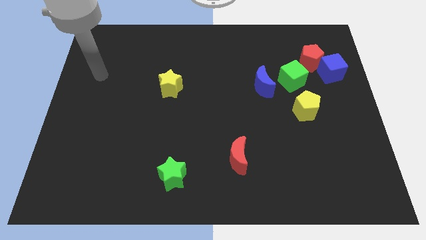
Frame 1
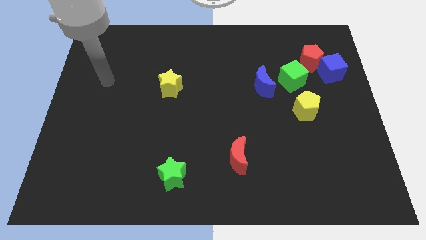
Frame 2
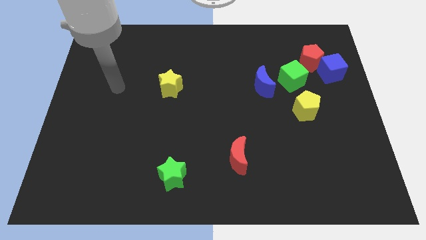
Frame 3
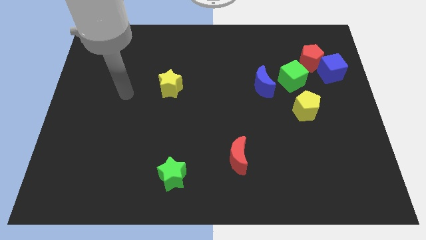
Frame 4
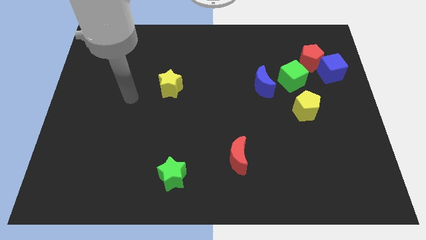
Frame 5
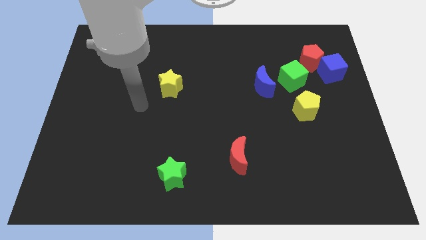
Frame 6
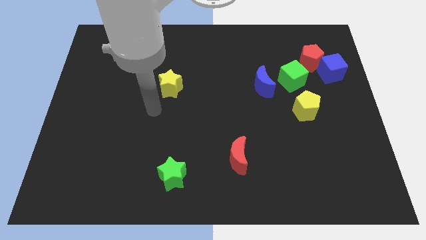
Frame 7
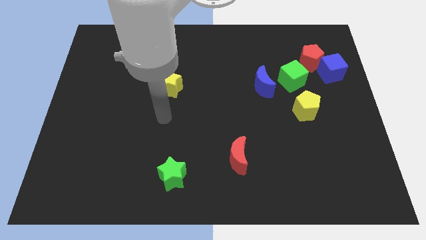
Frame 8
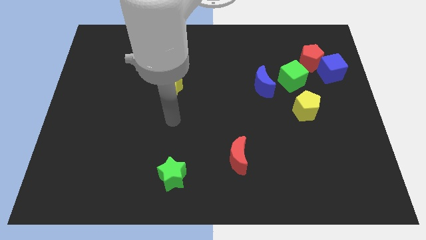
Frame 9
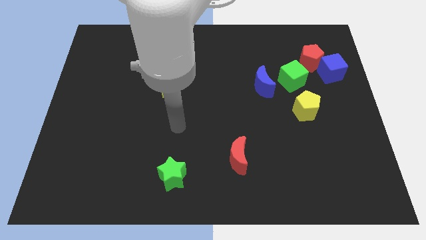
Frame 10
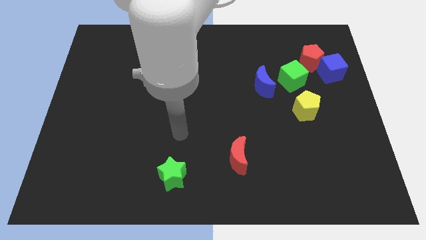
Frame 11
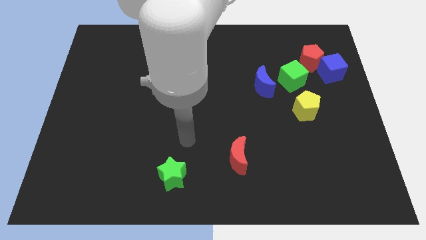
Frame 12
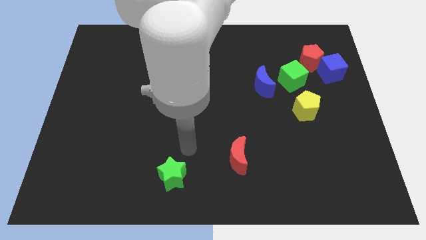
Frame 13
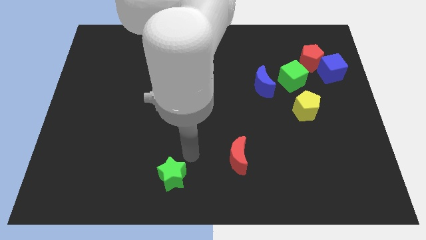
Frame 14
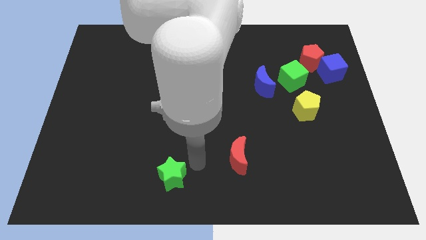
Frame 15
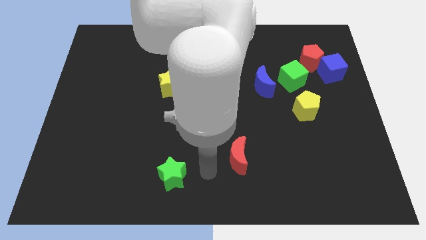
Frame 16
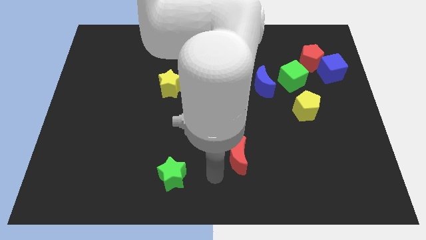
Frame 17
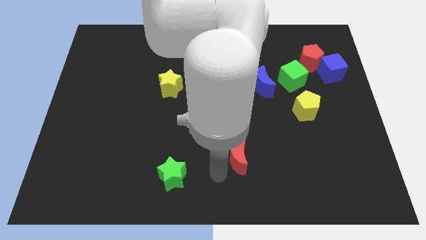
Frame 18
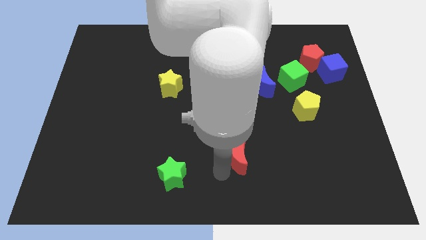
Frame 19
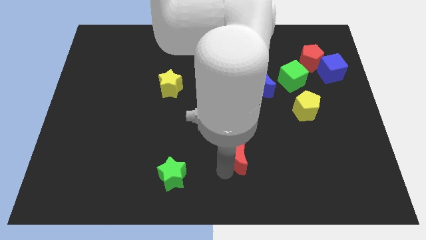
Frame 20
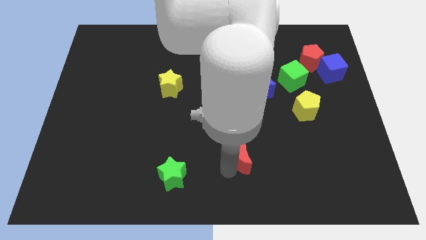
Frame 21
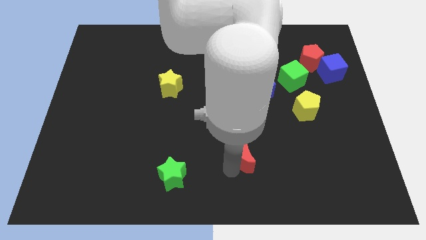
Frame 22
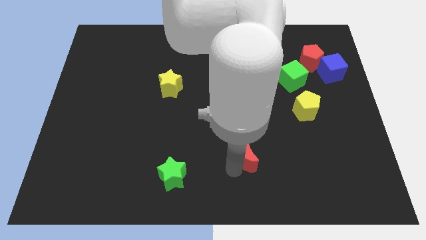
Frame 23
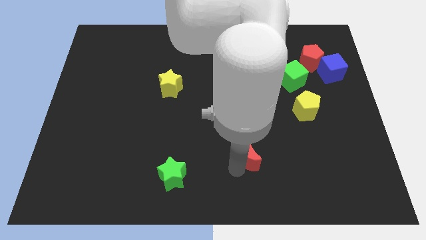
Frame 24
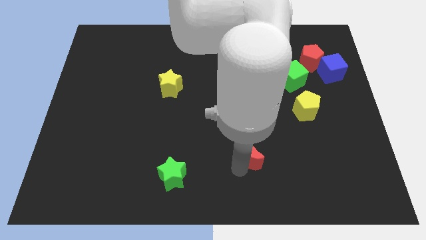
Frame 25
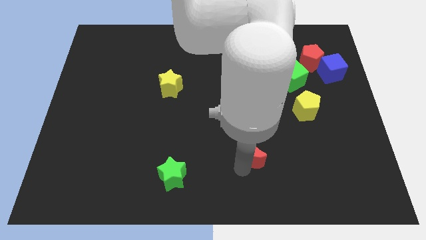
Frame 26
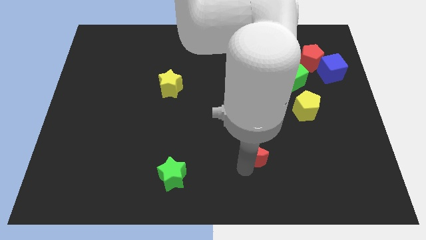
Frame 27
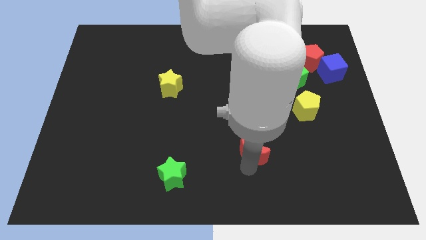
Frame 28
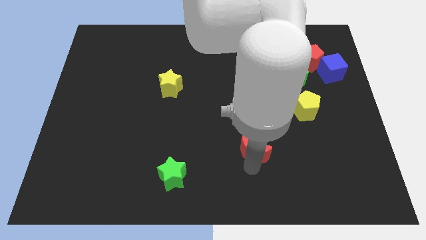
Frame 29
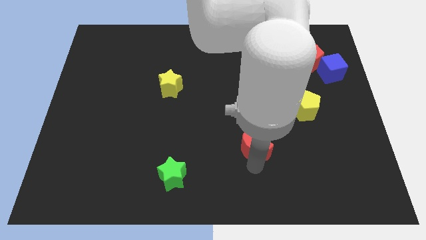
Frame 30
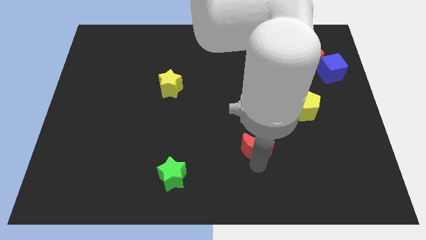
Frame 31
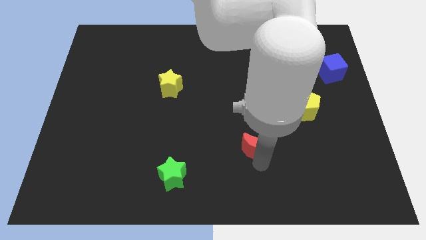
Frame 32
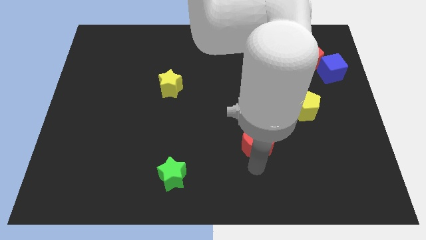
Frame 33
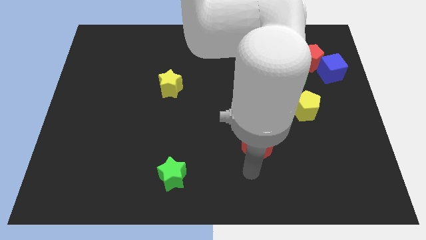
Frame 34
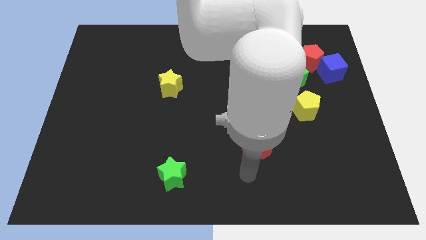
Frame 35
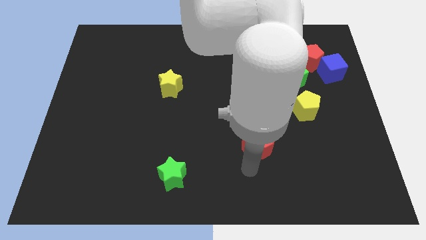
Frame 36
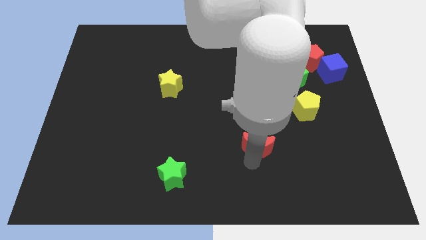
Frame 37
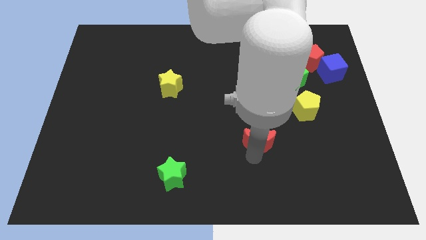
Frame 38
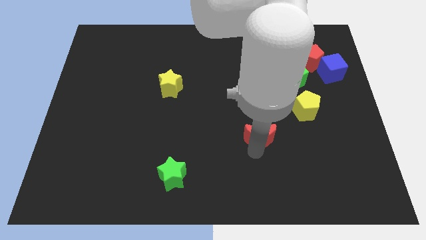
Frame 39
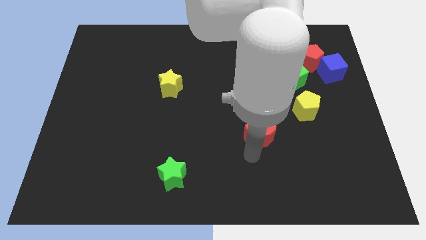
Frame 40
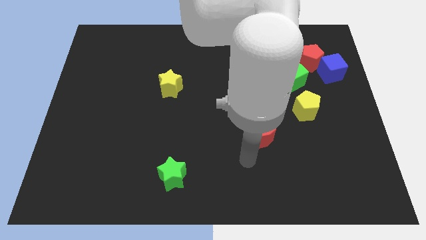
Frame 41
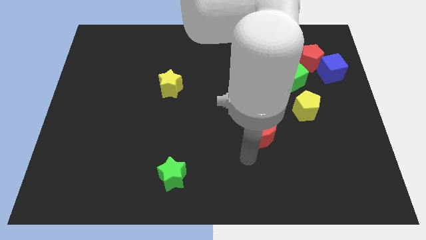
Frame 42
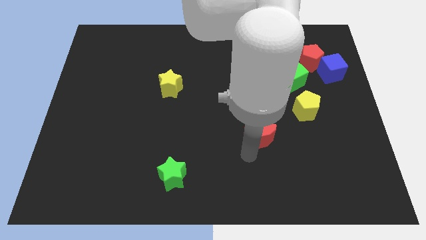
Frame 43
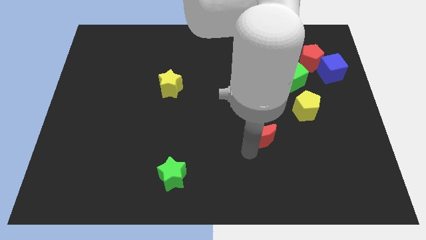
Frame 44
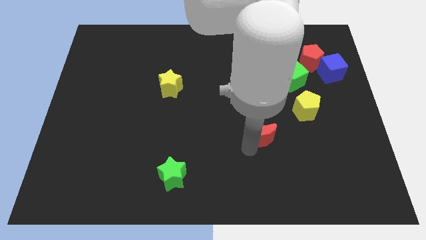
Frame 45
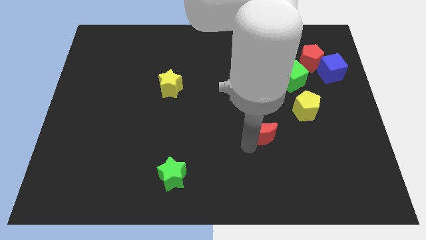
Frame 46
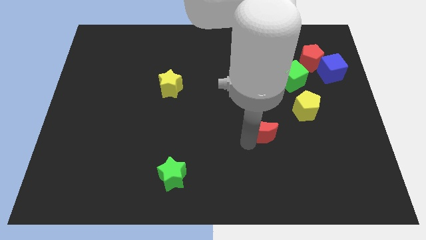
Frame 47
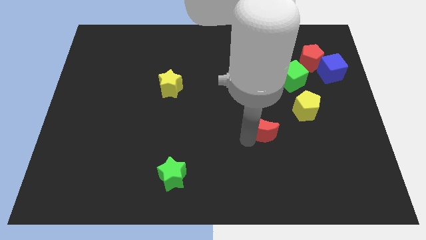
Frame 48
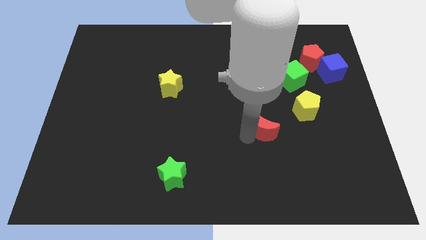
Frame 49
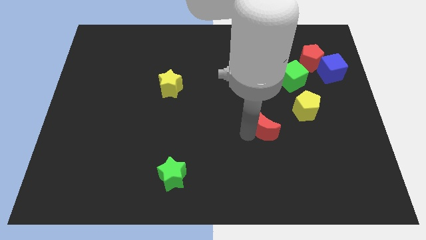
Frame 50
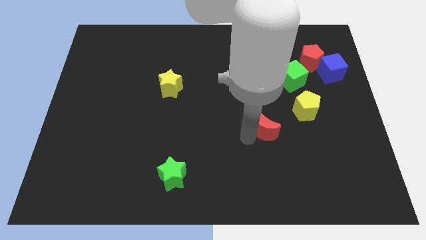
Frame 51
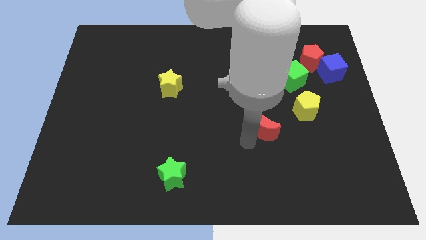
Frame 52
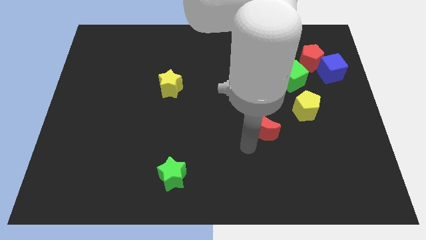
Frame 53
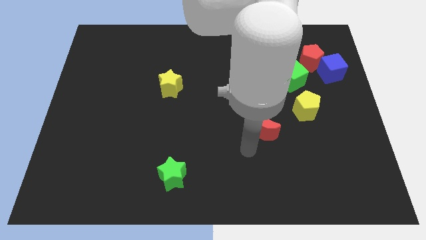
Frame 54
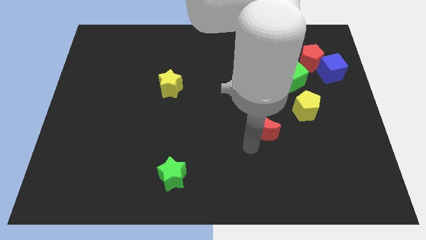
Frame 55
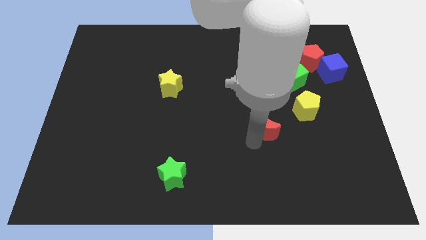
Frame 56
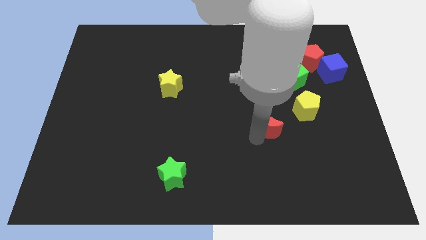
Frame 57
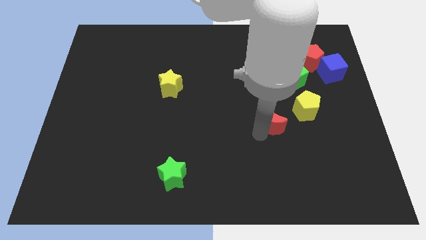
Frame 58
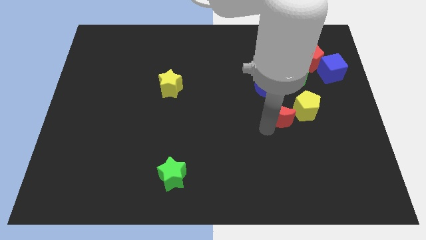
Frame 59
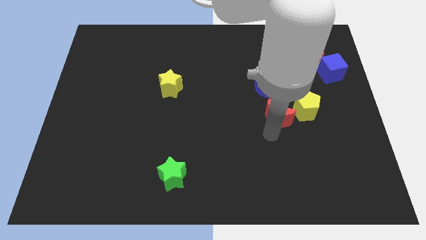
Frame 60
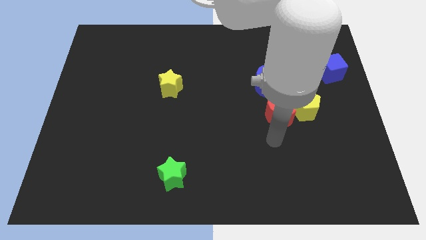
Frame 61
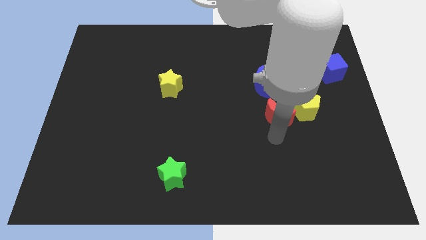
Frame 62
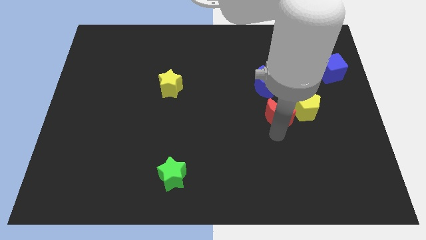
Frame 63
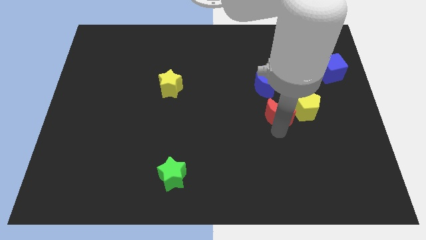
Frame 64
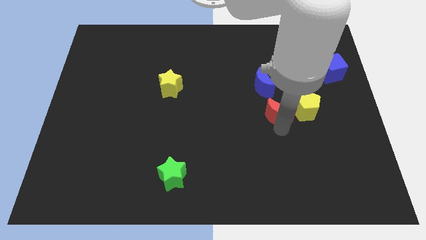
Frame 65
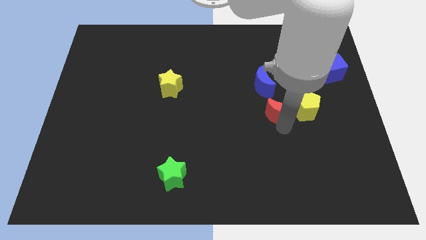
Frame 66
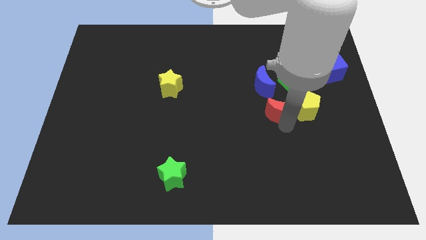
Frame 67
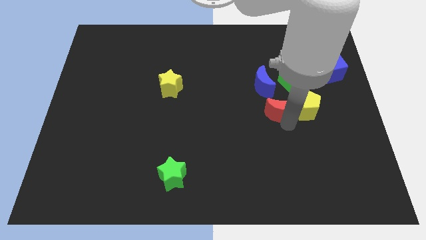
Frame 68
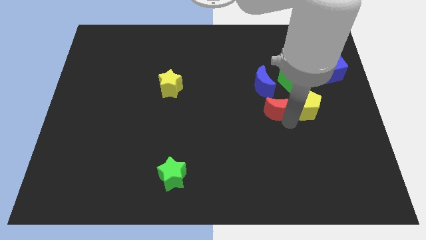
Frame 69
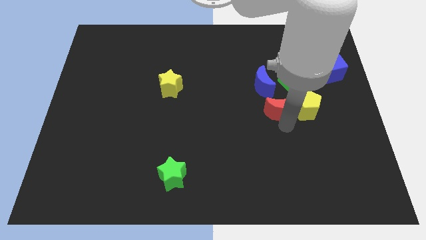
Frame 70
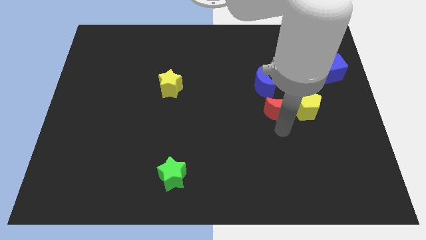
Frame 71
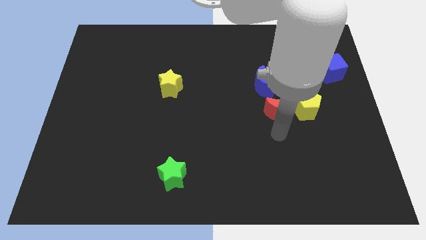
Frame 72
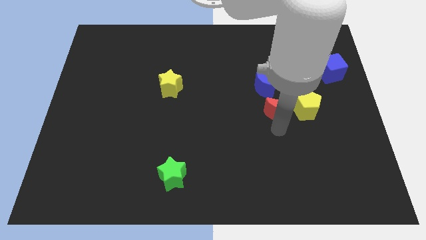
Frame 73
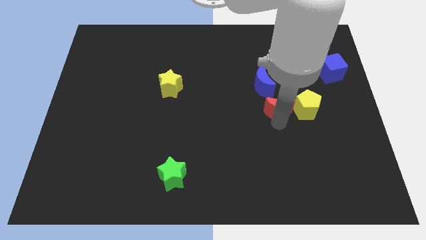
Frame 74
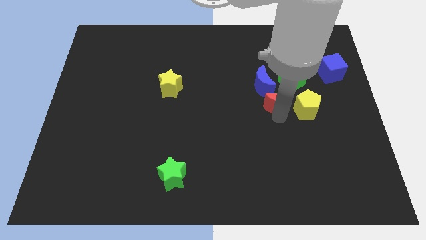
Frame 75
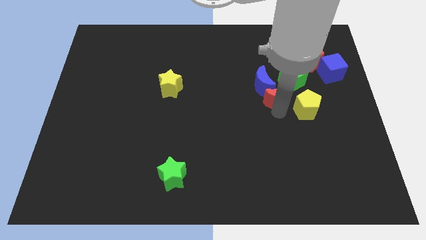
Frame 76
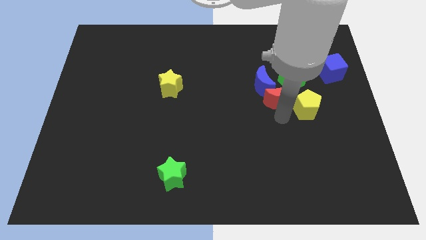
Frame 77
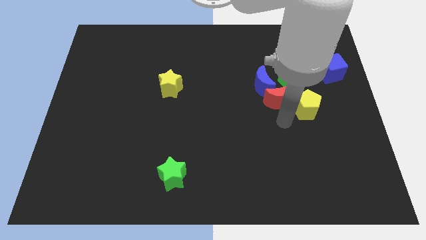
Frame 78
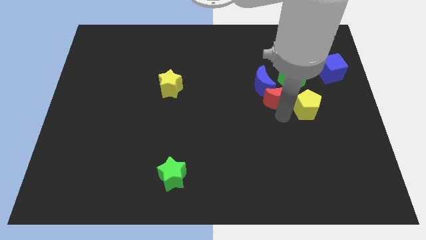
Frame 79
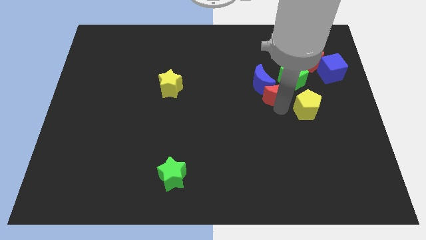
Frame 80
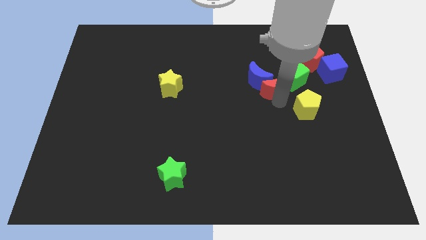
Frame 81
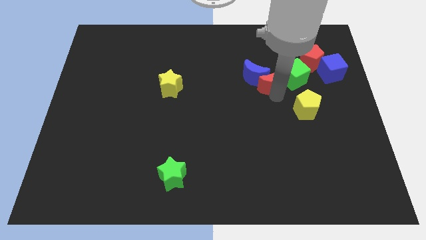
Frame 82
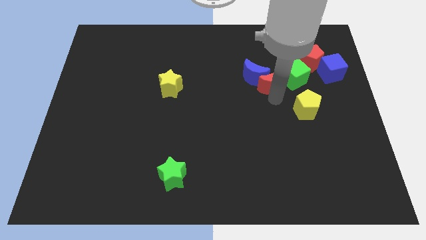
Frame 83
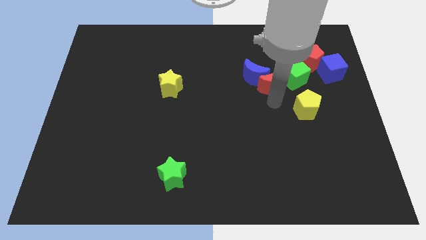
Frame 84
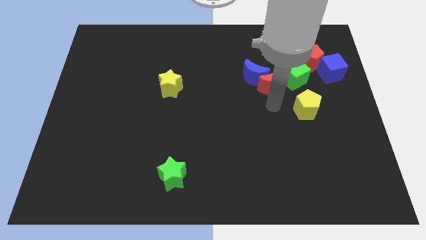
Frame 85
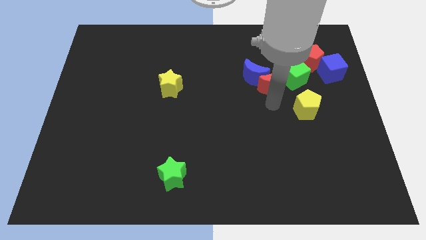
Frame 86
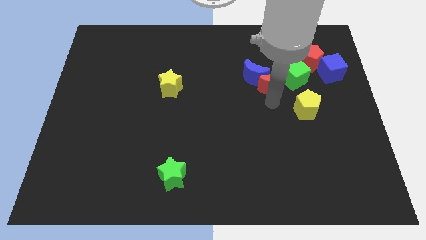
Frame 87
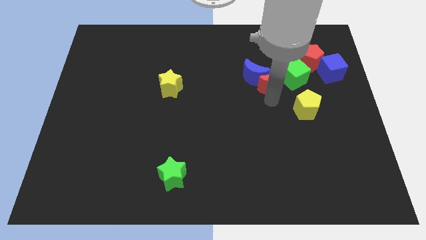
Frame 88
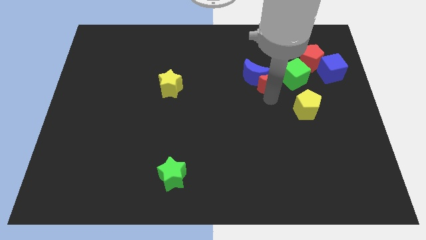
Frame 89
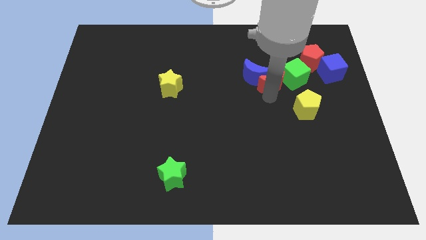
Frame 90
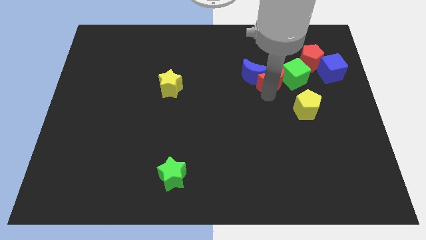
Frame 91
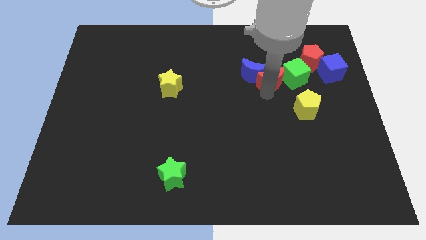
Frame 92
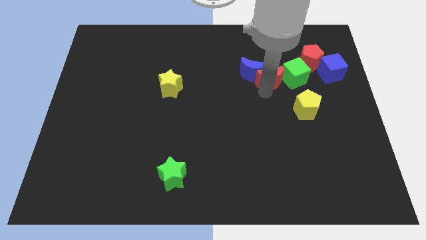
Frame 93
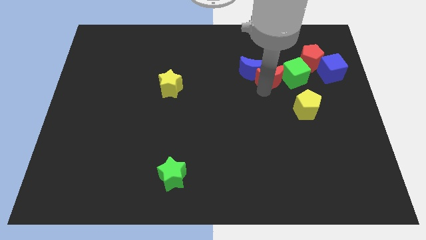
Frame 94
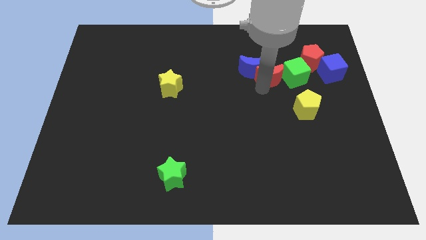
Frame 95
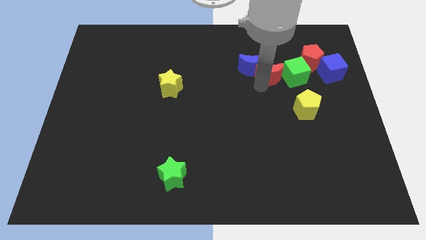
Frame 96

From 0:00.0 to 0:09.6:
put the red moon left of the blue cube
